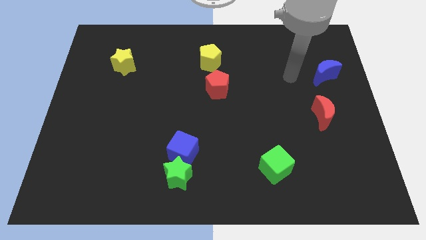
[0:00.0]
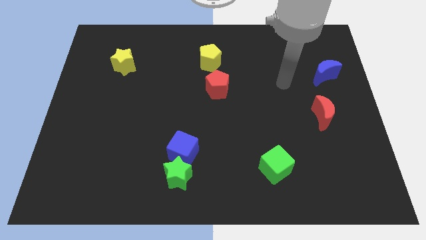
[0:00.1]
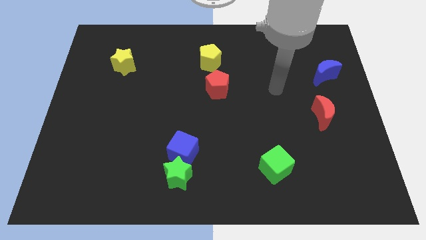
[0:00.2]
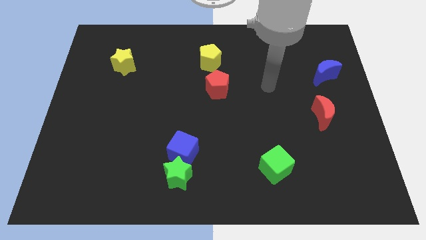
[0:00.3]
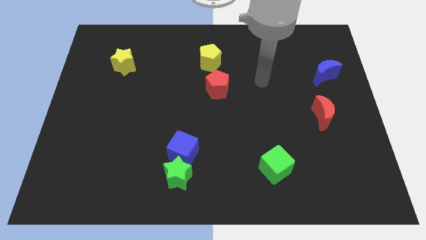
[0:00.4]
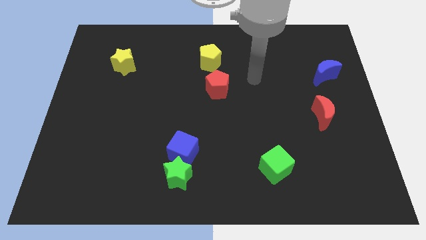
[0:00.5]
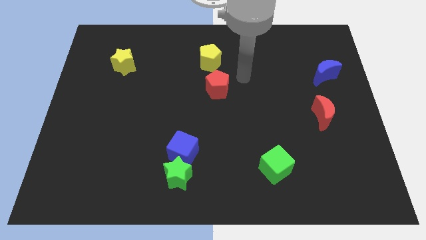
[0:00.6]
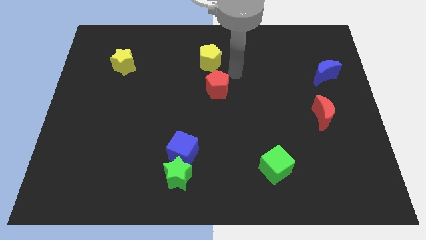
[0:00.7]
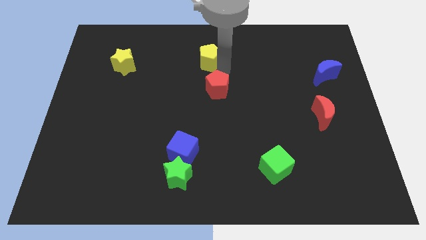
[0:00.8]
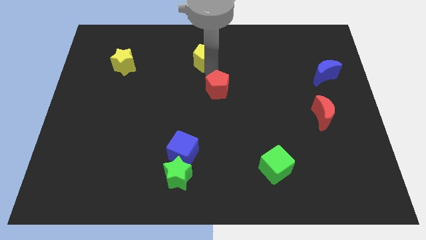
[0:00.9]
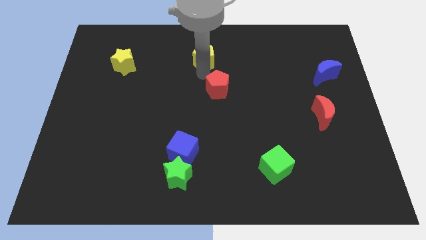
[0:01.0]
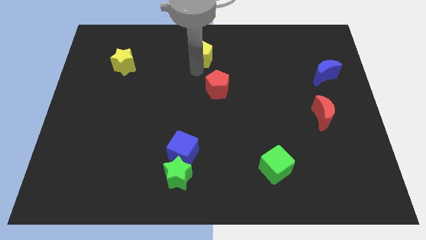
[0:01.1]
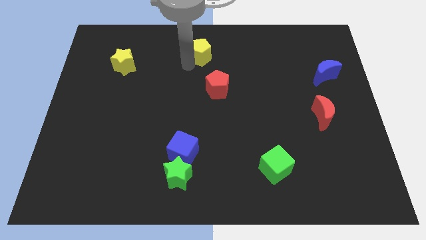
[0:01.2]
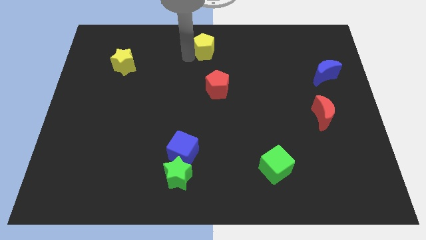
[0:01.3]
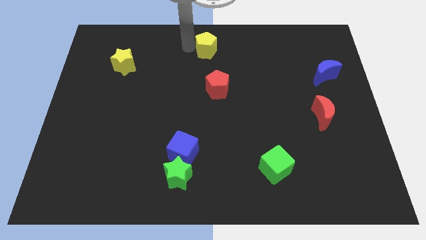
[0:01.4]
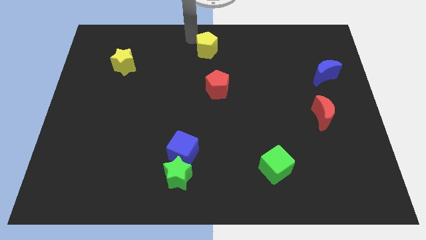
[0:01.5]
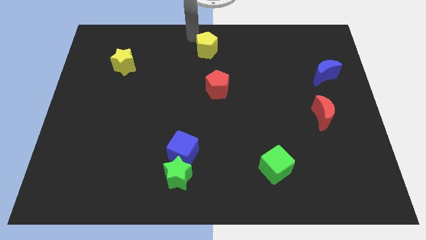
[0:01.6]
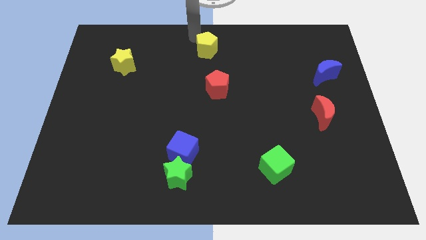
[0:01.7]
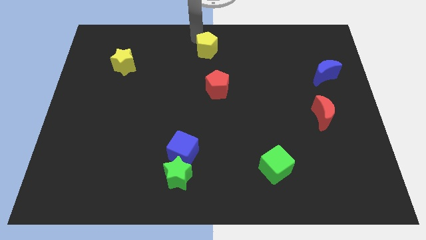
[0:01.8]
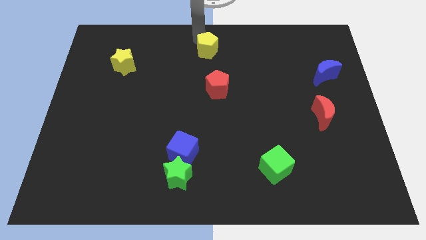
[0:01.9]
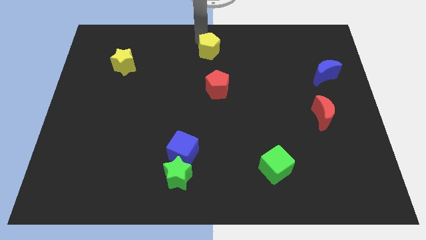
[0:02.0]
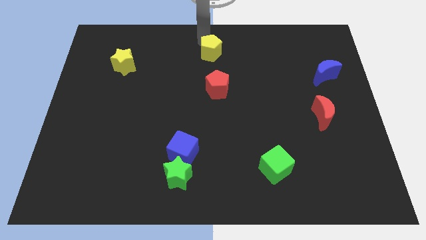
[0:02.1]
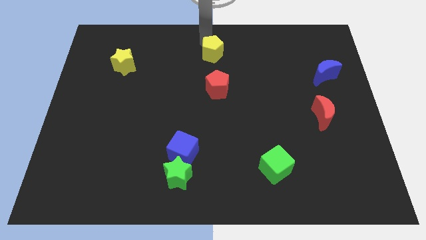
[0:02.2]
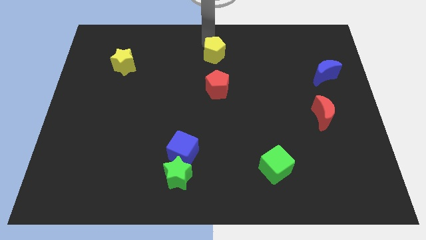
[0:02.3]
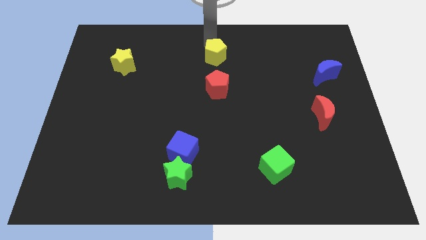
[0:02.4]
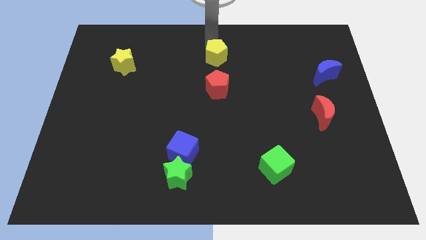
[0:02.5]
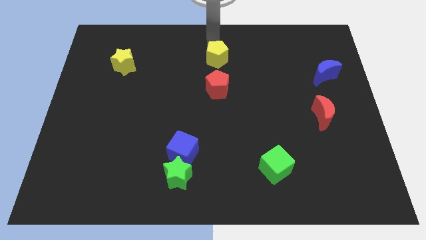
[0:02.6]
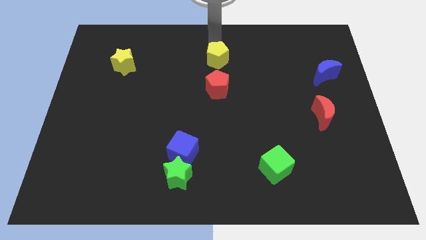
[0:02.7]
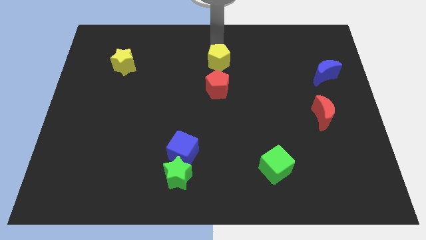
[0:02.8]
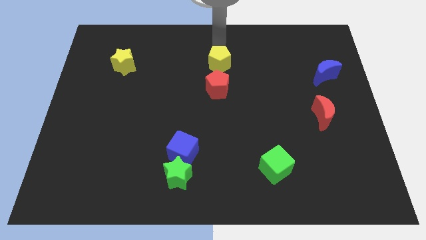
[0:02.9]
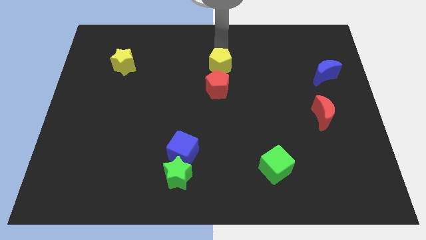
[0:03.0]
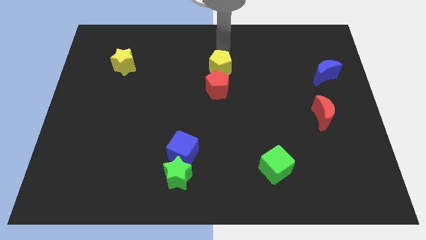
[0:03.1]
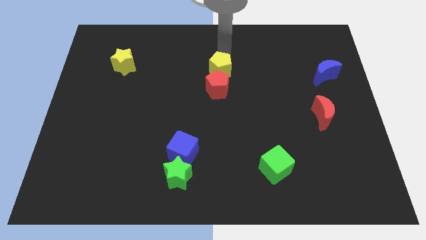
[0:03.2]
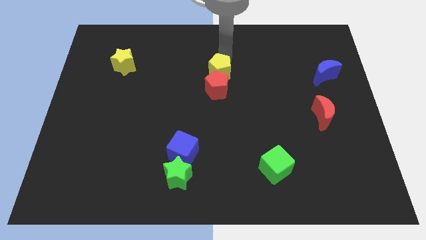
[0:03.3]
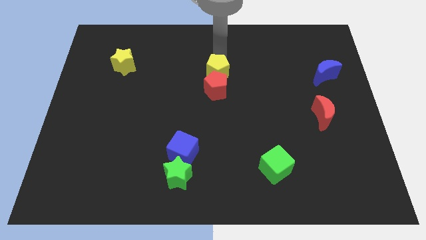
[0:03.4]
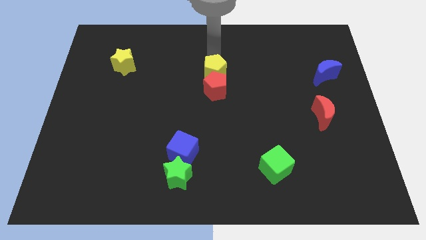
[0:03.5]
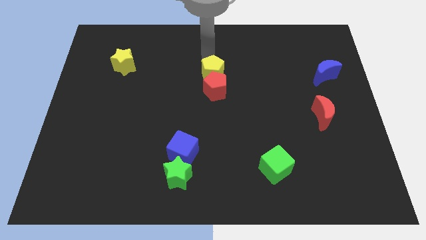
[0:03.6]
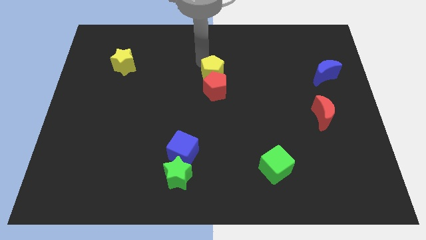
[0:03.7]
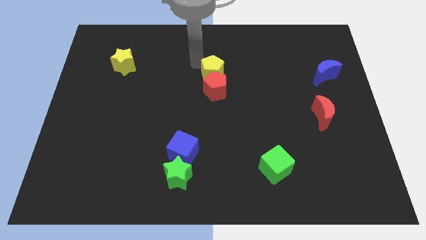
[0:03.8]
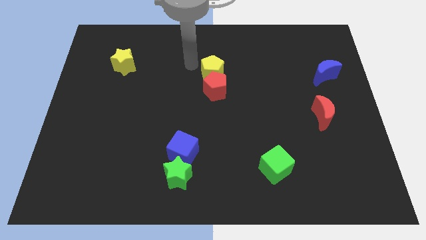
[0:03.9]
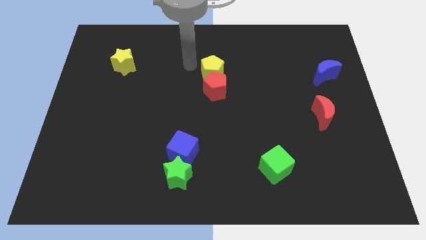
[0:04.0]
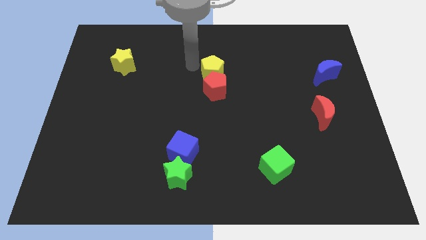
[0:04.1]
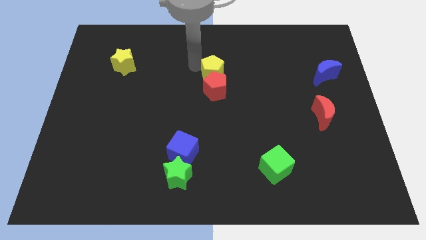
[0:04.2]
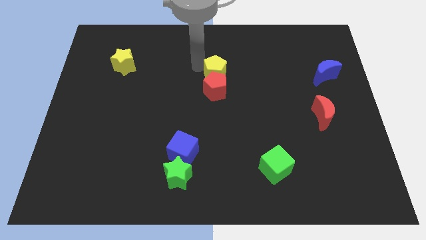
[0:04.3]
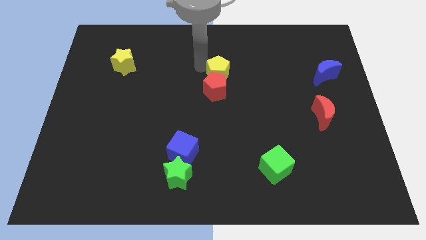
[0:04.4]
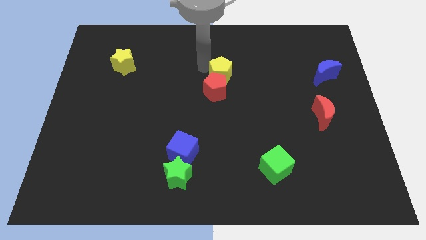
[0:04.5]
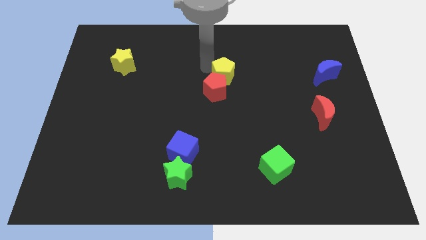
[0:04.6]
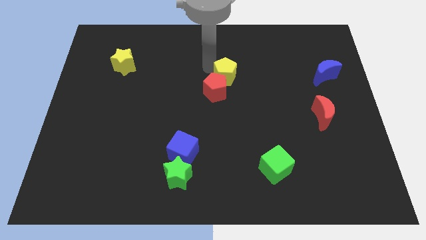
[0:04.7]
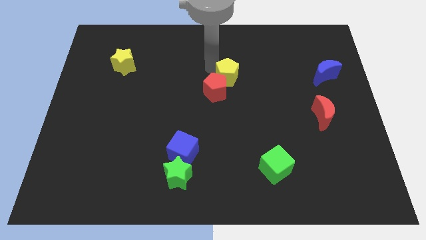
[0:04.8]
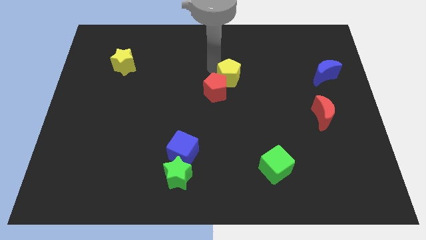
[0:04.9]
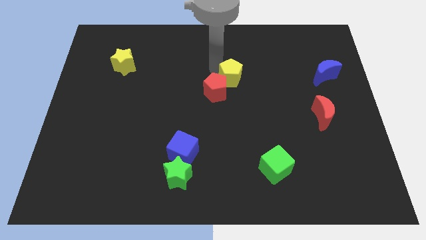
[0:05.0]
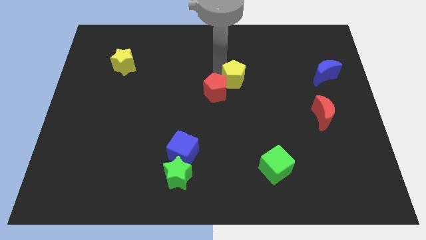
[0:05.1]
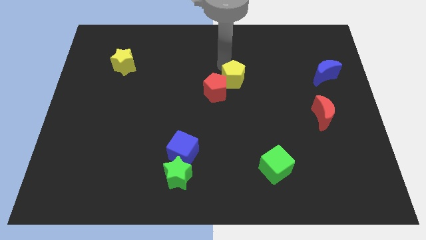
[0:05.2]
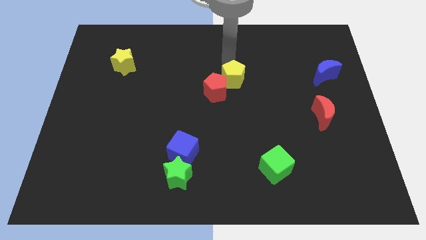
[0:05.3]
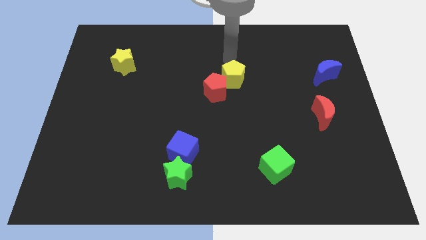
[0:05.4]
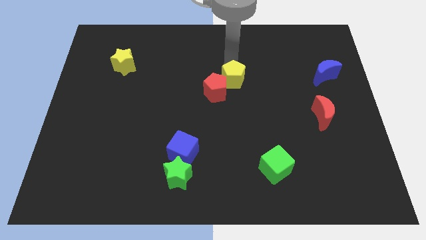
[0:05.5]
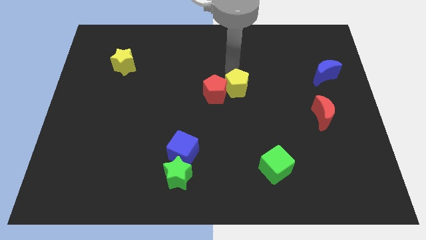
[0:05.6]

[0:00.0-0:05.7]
slide the yellow pentagon to the bottom right side of the red pentagon

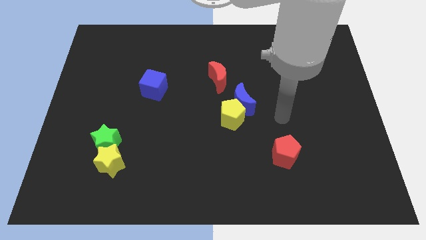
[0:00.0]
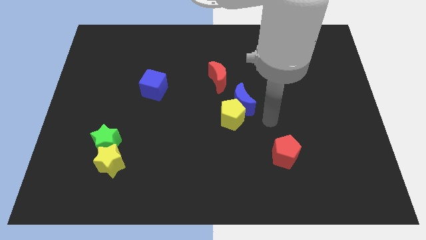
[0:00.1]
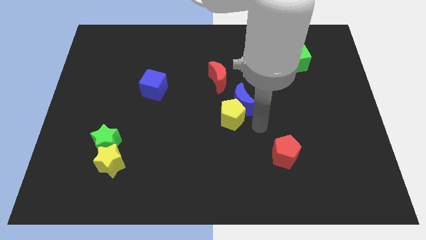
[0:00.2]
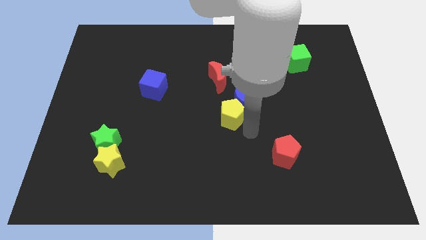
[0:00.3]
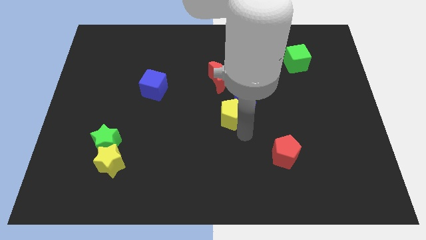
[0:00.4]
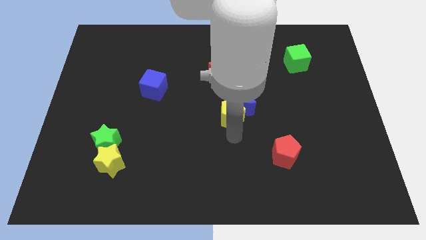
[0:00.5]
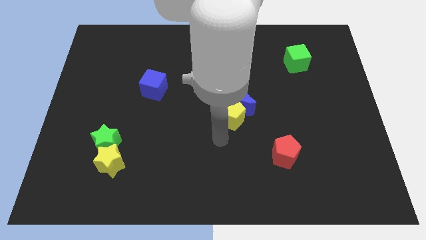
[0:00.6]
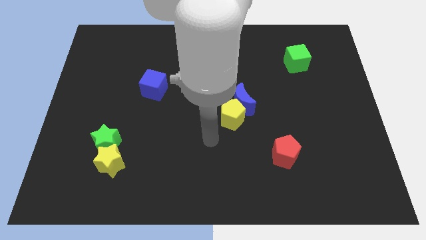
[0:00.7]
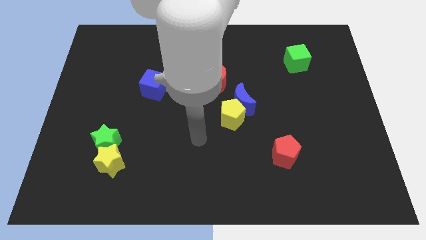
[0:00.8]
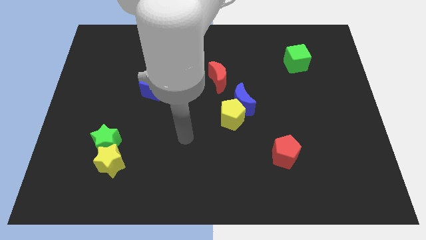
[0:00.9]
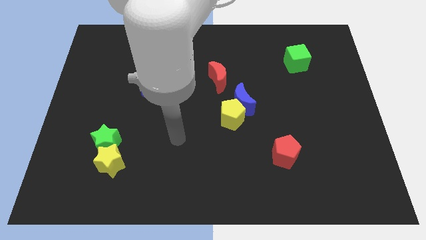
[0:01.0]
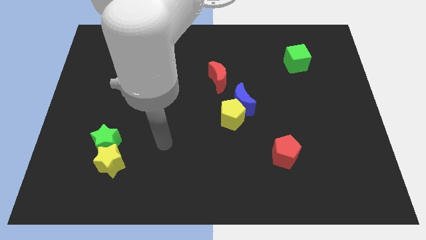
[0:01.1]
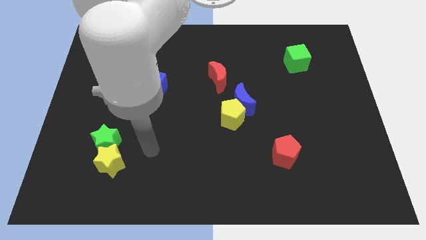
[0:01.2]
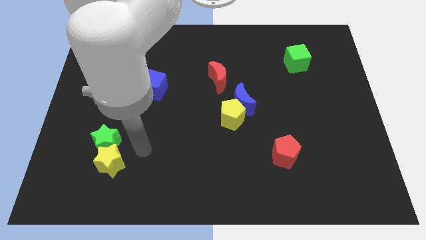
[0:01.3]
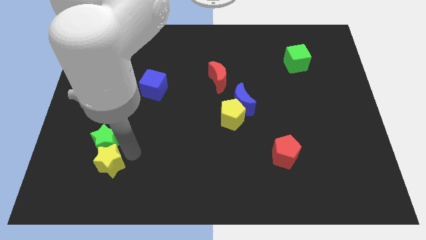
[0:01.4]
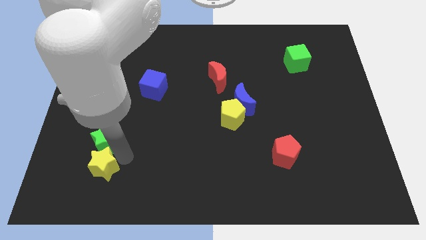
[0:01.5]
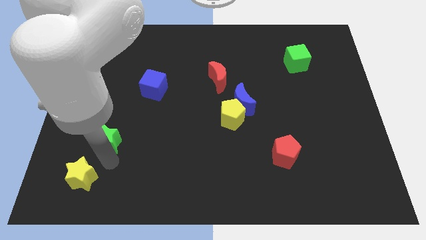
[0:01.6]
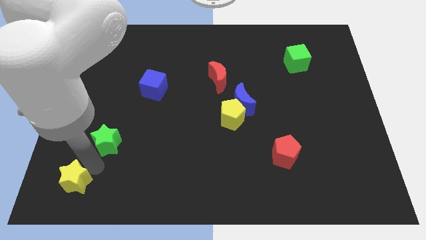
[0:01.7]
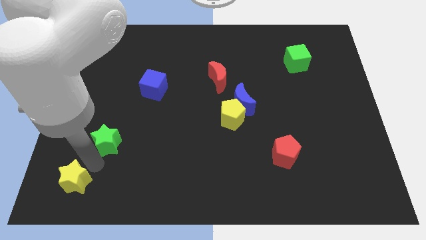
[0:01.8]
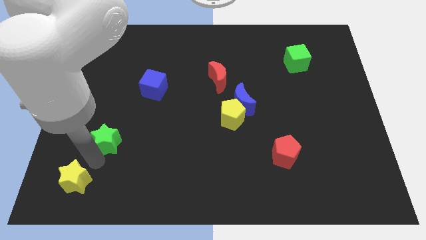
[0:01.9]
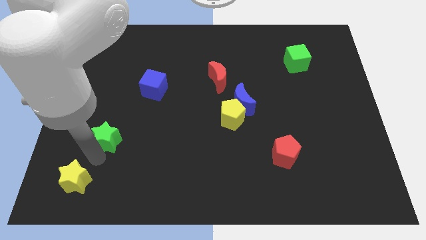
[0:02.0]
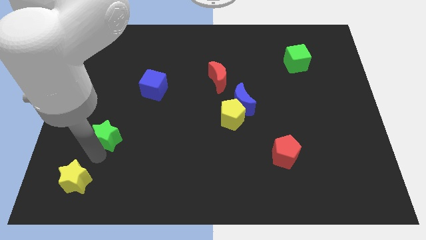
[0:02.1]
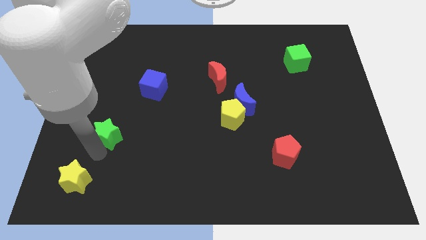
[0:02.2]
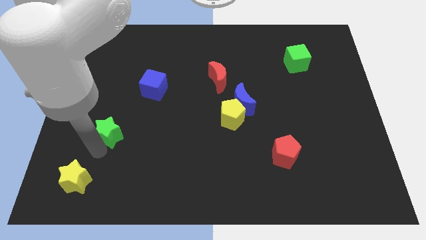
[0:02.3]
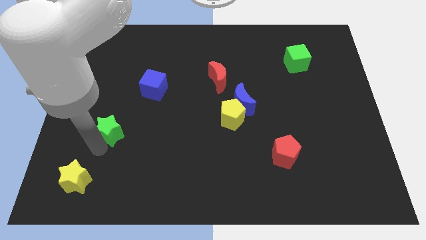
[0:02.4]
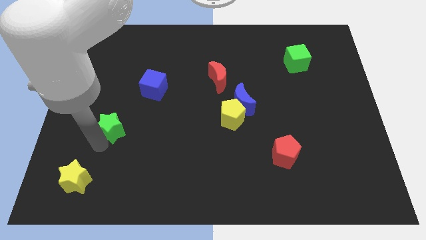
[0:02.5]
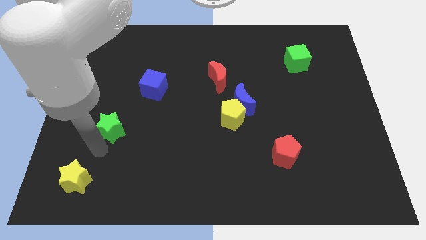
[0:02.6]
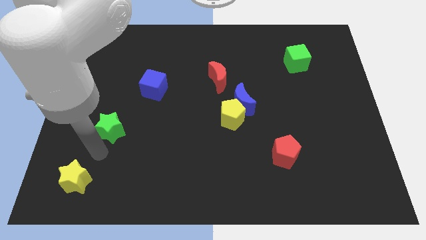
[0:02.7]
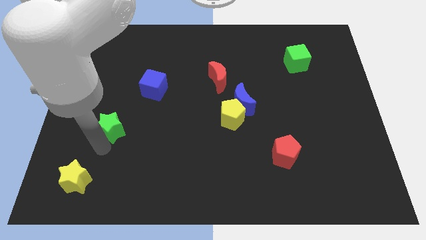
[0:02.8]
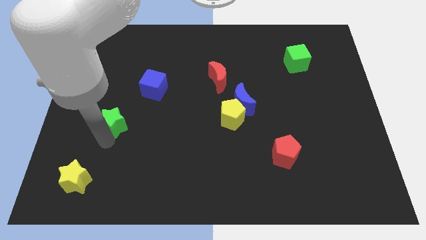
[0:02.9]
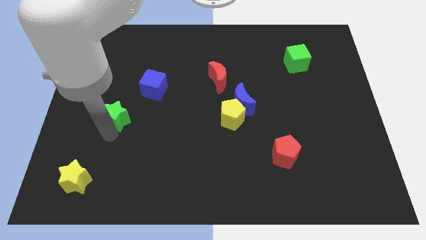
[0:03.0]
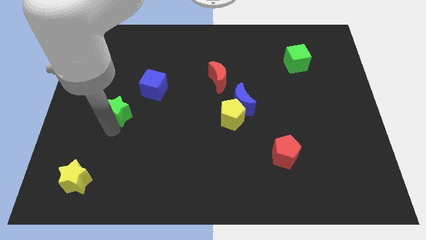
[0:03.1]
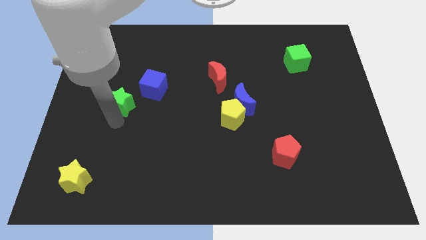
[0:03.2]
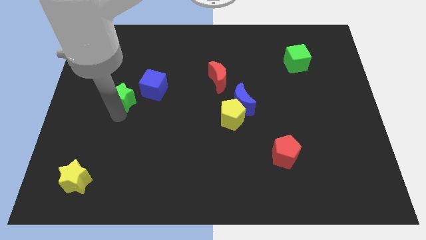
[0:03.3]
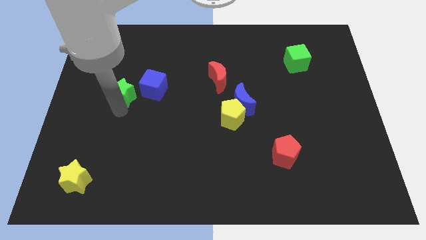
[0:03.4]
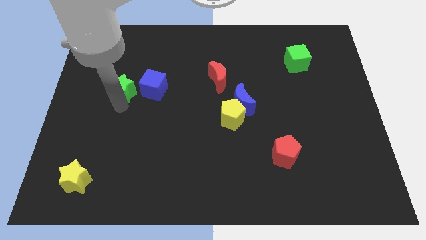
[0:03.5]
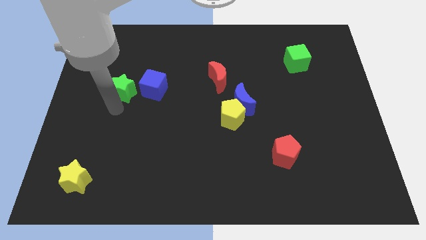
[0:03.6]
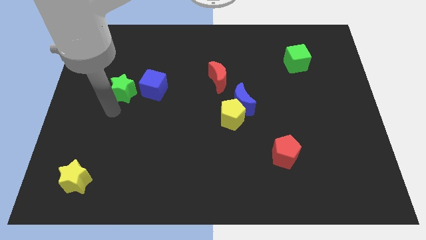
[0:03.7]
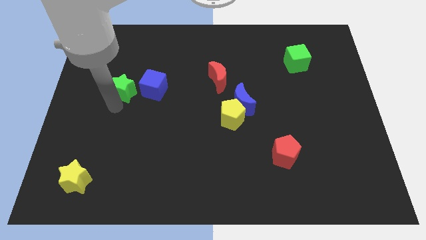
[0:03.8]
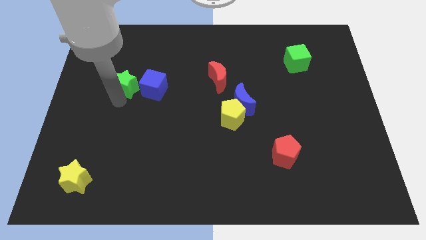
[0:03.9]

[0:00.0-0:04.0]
push the green star to the top left of the blue cube
